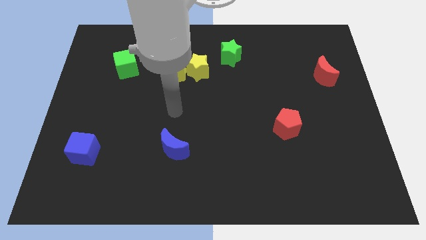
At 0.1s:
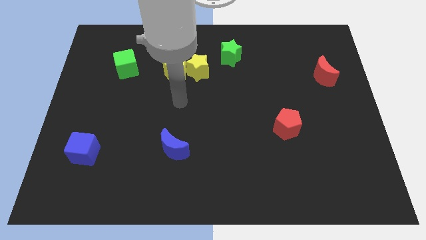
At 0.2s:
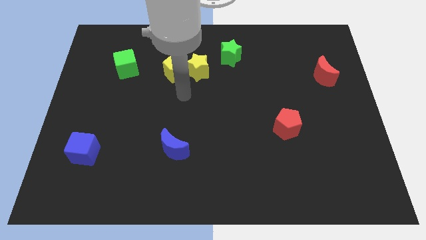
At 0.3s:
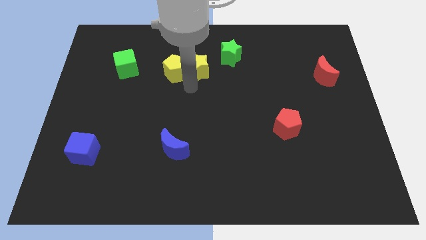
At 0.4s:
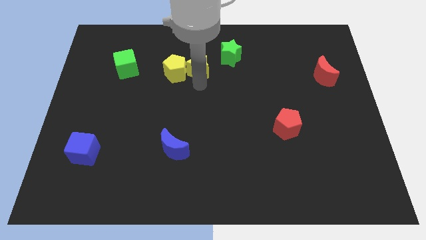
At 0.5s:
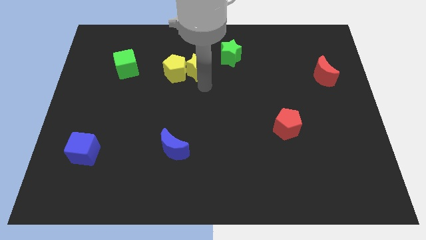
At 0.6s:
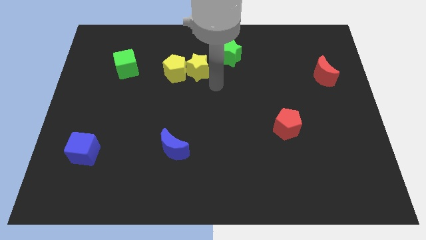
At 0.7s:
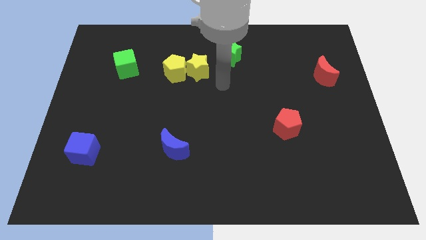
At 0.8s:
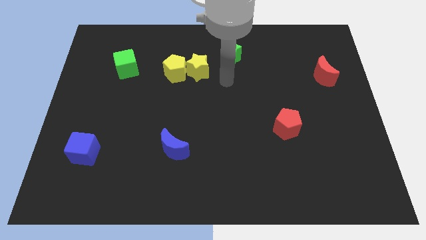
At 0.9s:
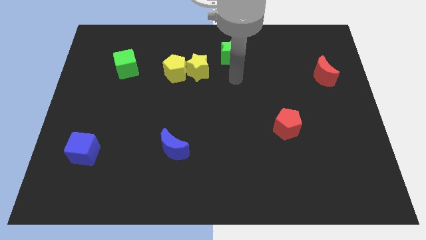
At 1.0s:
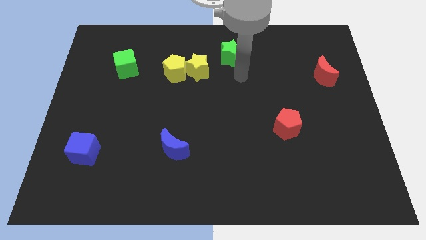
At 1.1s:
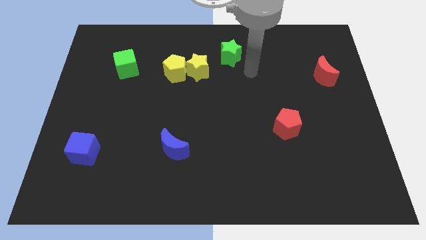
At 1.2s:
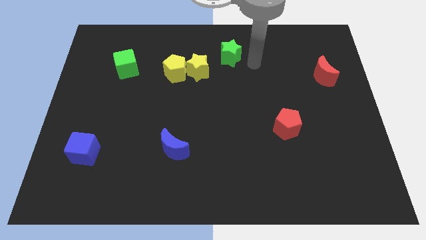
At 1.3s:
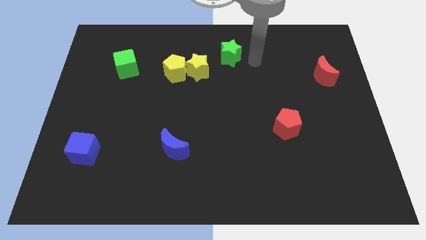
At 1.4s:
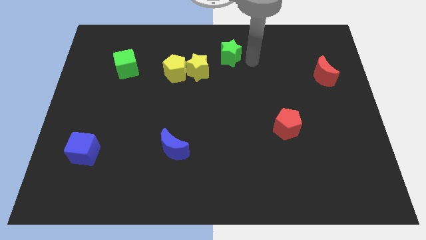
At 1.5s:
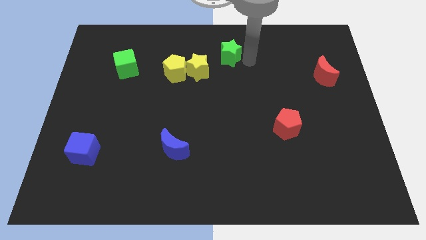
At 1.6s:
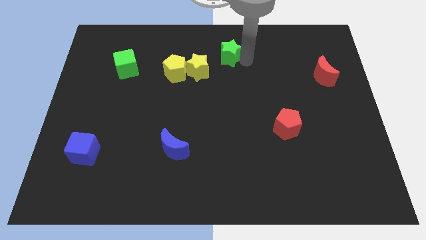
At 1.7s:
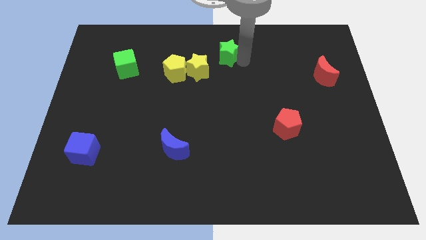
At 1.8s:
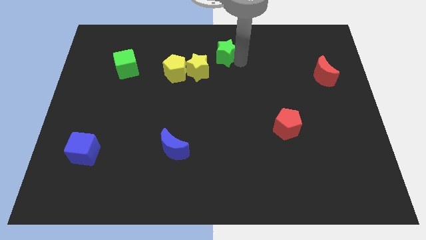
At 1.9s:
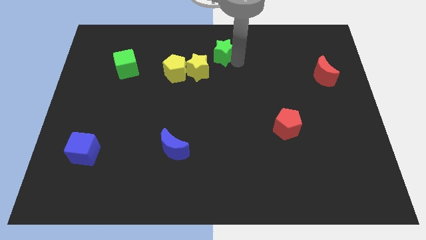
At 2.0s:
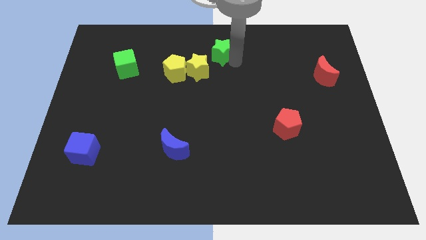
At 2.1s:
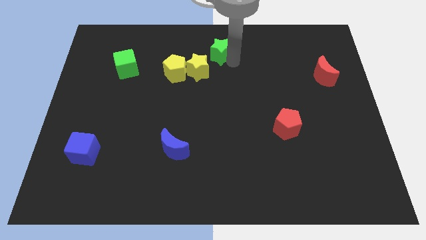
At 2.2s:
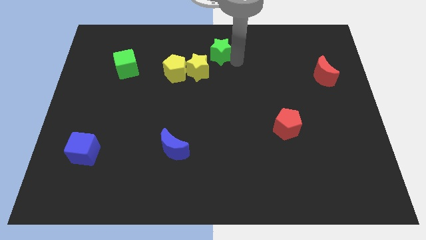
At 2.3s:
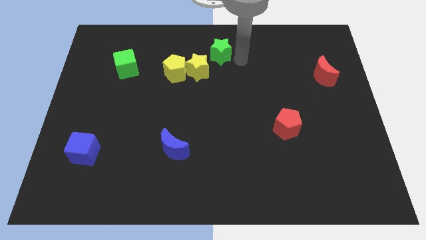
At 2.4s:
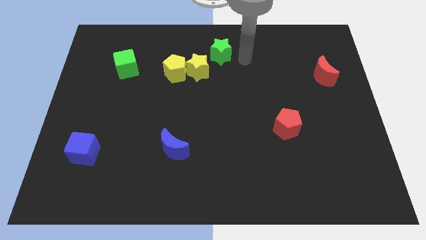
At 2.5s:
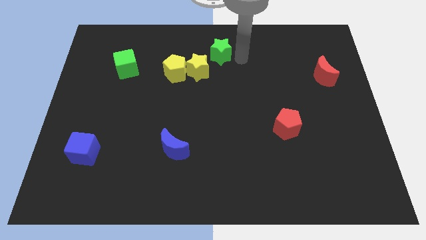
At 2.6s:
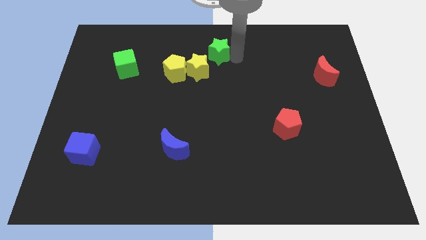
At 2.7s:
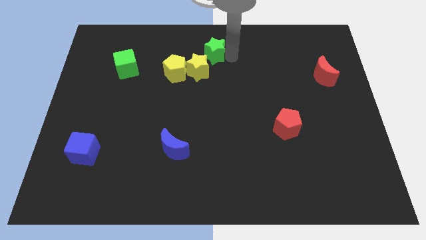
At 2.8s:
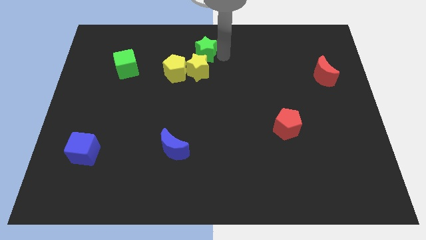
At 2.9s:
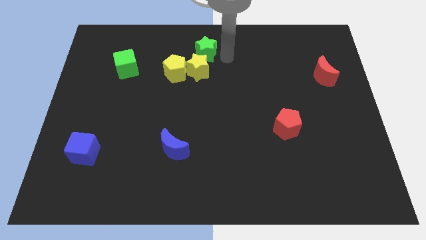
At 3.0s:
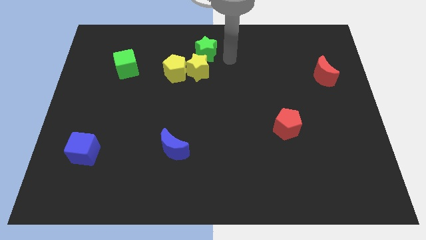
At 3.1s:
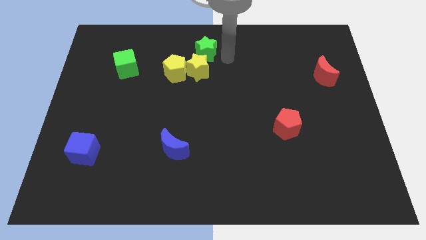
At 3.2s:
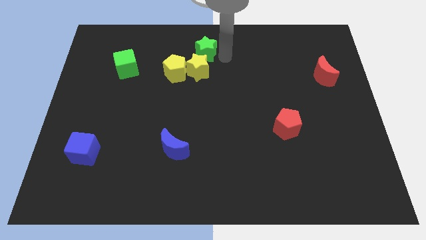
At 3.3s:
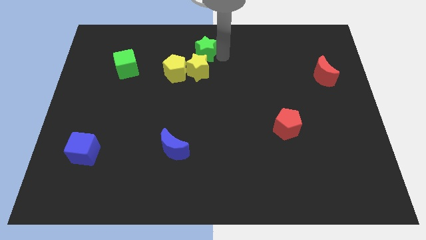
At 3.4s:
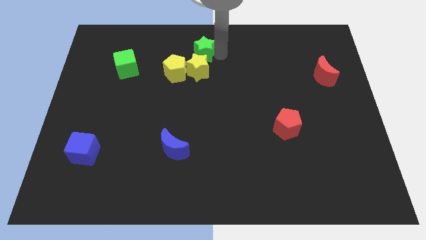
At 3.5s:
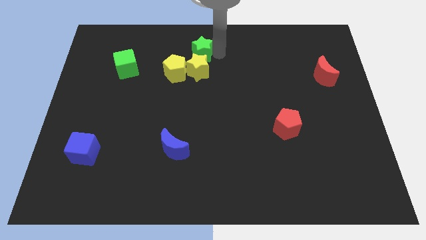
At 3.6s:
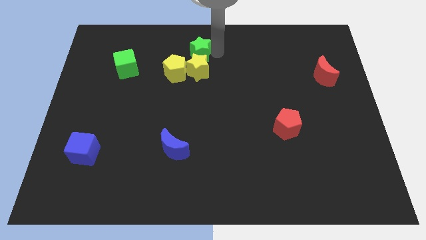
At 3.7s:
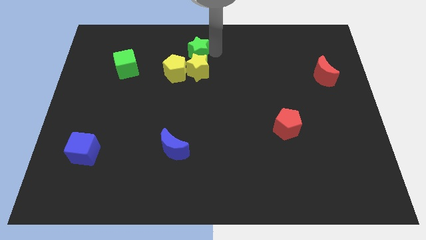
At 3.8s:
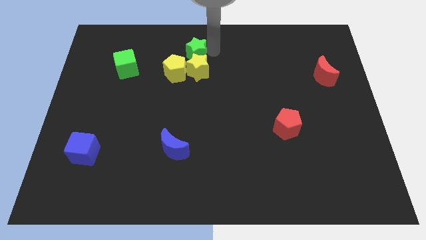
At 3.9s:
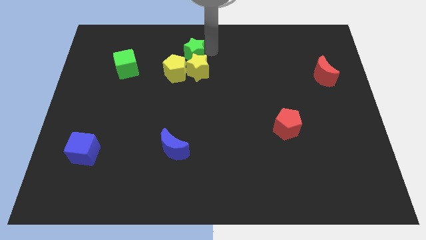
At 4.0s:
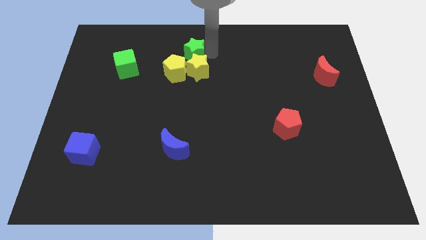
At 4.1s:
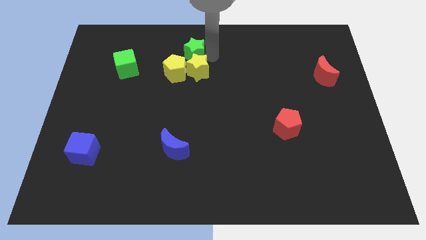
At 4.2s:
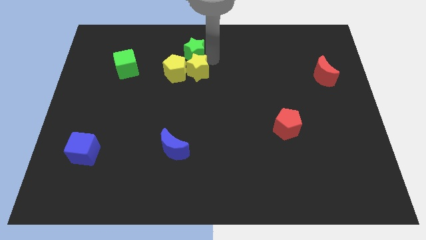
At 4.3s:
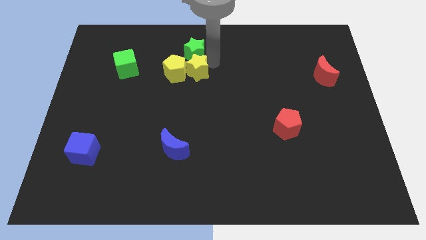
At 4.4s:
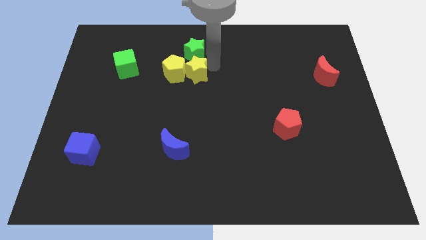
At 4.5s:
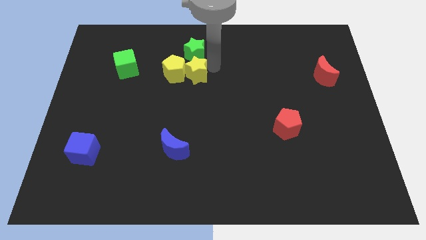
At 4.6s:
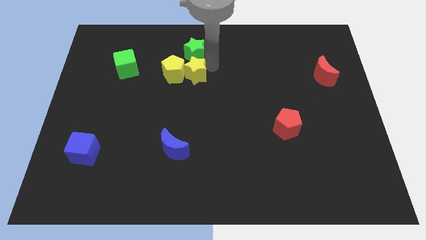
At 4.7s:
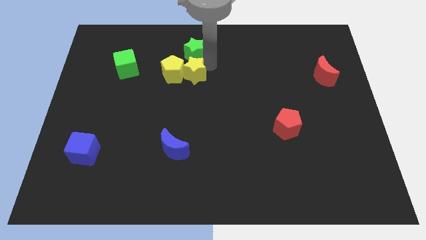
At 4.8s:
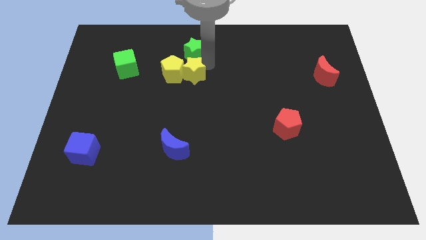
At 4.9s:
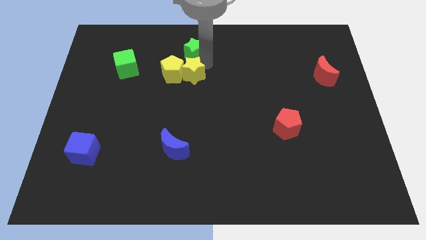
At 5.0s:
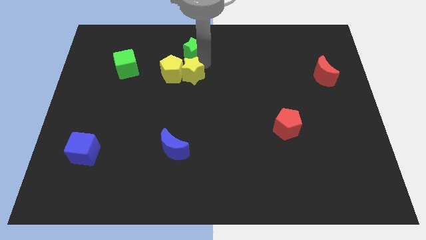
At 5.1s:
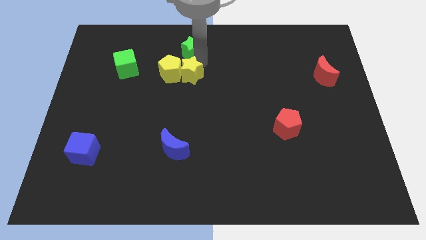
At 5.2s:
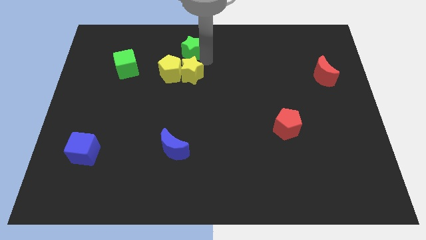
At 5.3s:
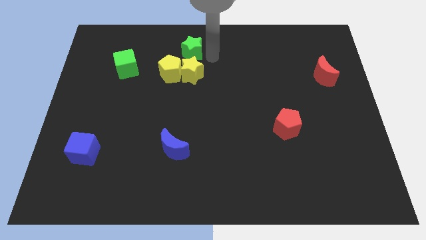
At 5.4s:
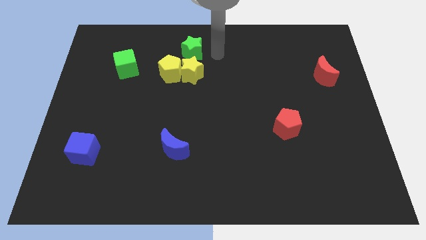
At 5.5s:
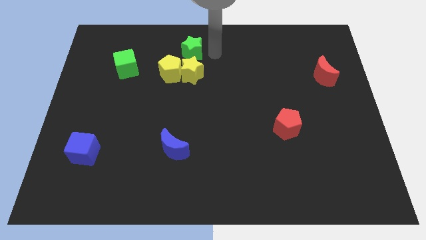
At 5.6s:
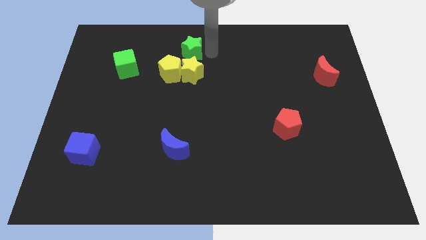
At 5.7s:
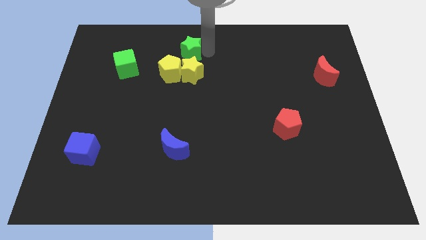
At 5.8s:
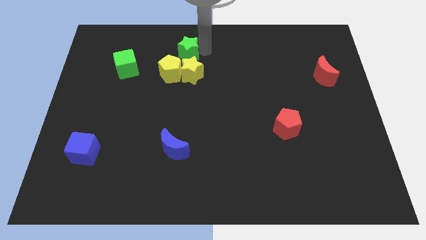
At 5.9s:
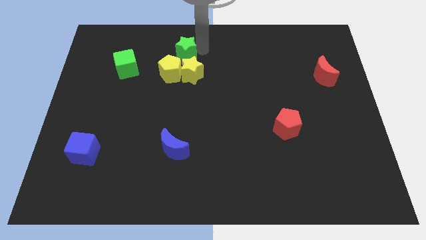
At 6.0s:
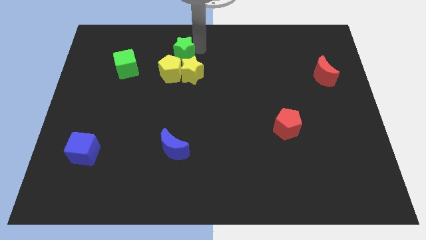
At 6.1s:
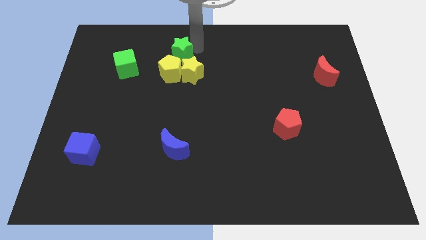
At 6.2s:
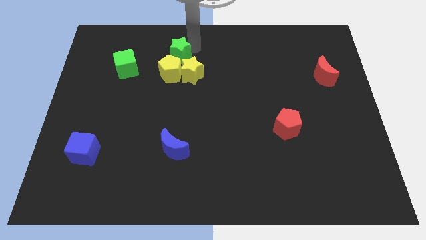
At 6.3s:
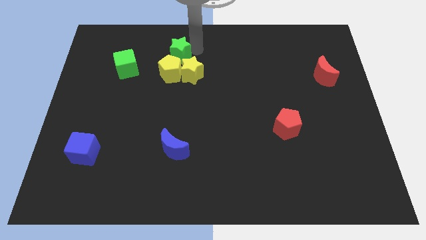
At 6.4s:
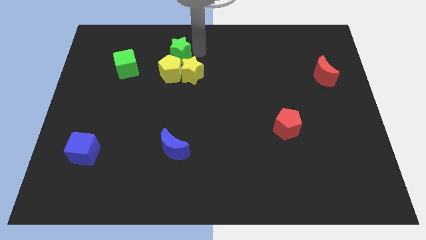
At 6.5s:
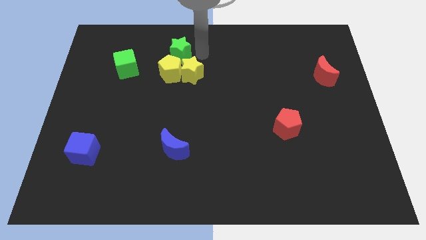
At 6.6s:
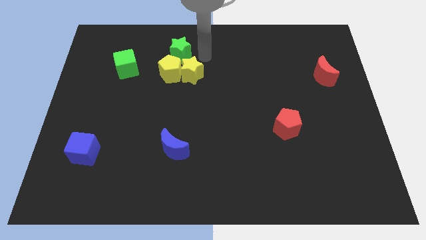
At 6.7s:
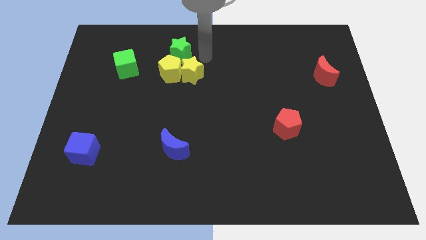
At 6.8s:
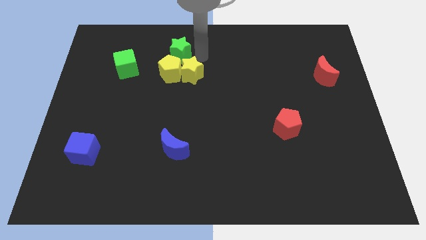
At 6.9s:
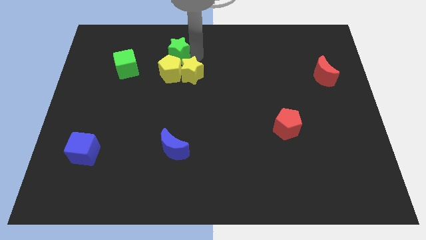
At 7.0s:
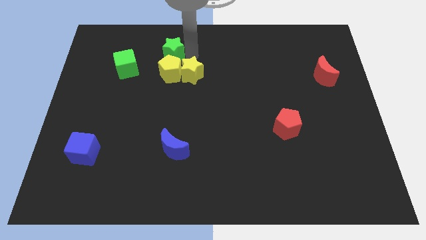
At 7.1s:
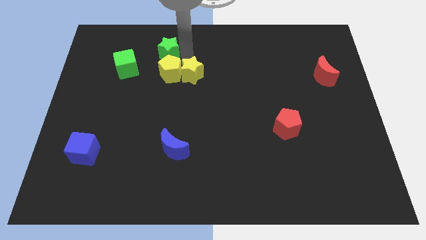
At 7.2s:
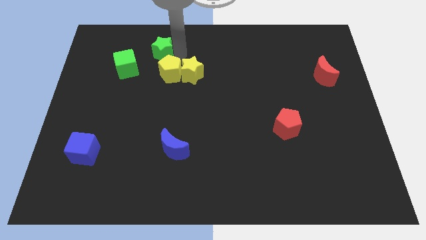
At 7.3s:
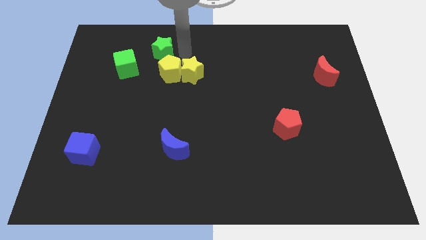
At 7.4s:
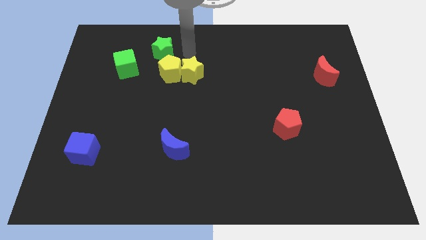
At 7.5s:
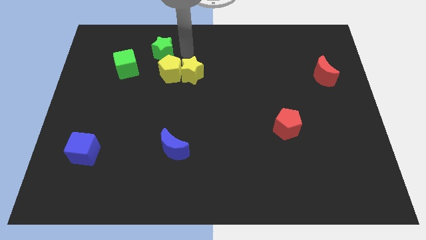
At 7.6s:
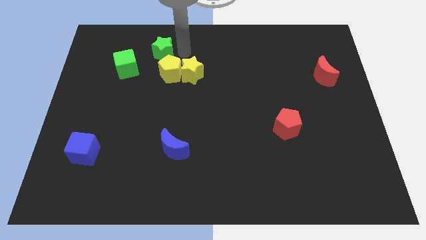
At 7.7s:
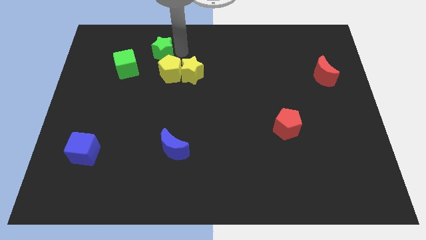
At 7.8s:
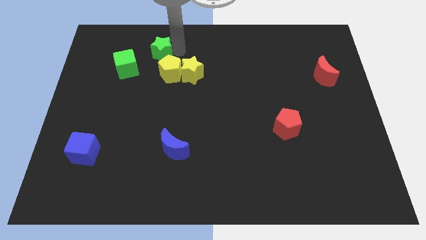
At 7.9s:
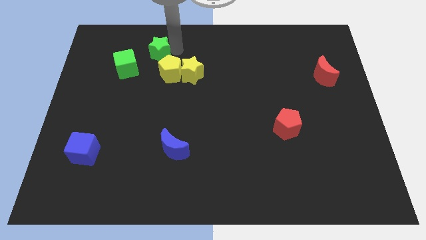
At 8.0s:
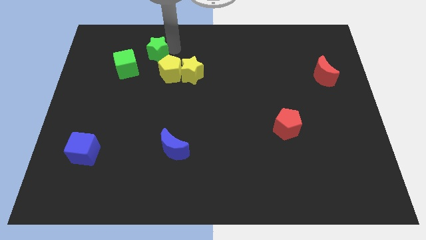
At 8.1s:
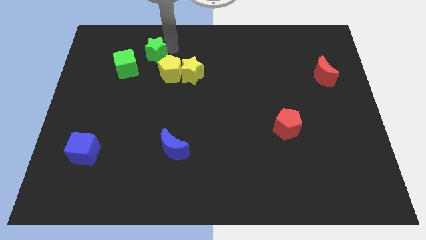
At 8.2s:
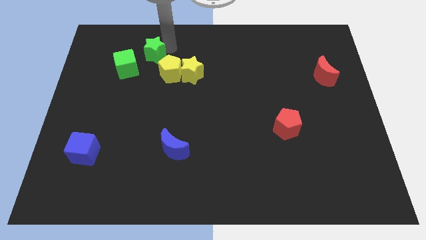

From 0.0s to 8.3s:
move the green star to the left
